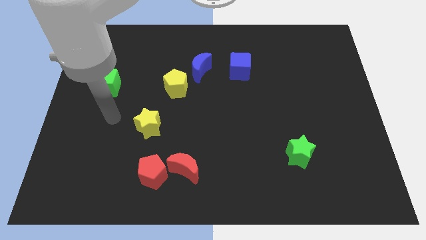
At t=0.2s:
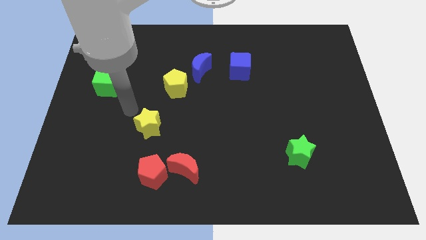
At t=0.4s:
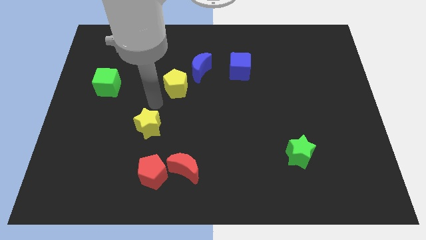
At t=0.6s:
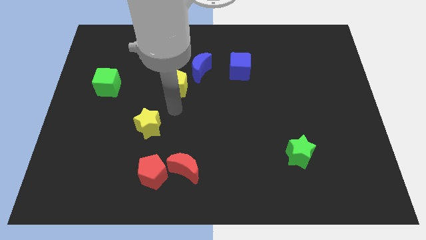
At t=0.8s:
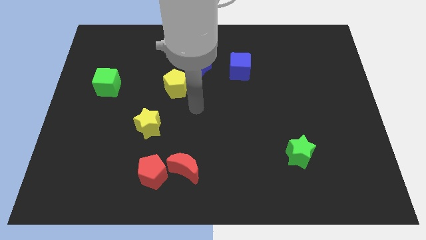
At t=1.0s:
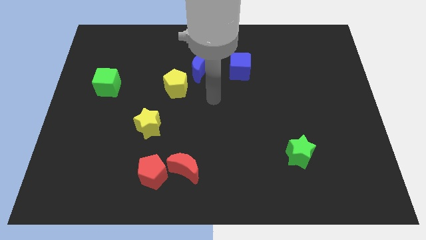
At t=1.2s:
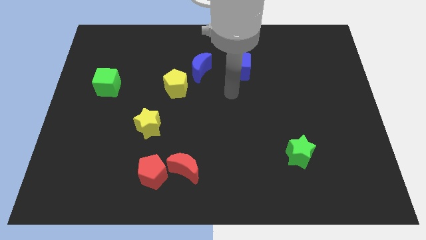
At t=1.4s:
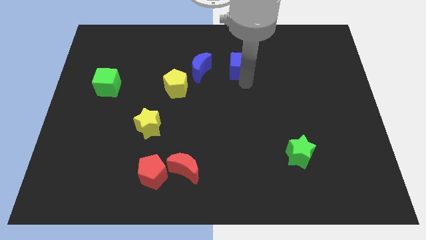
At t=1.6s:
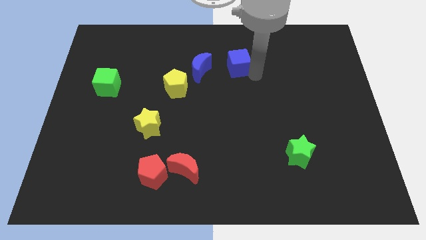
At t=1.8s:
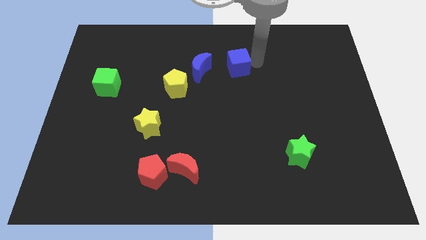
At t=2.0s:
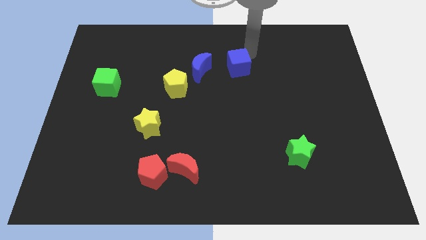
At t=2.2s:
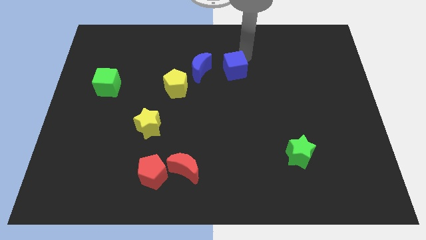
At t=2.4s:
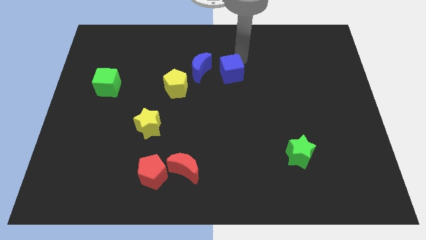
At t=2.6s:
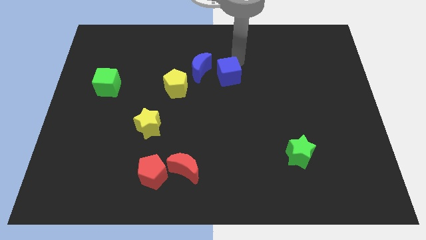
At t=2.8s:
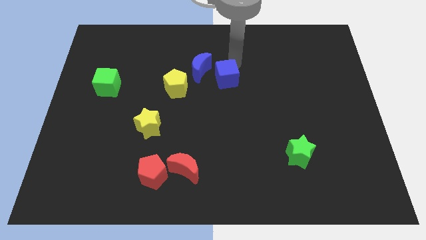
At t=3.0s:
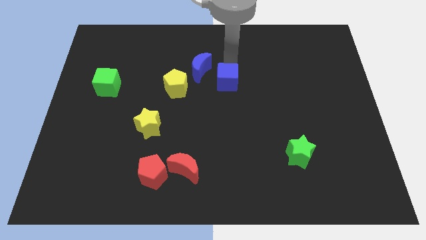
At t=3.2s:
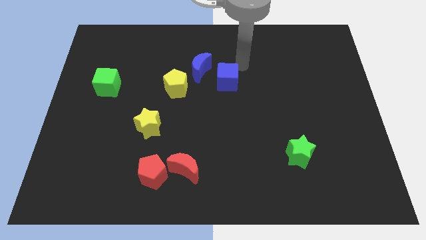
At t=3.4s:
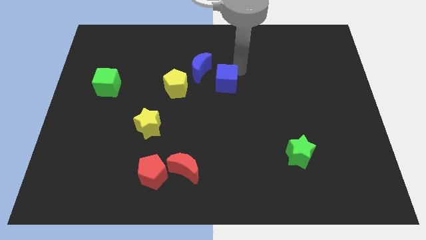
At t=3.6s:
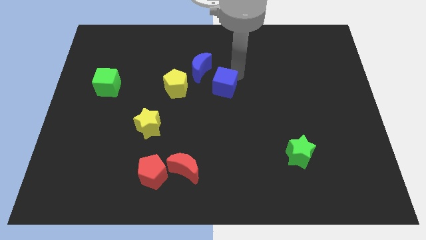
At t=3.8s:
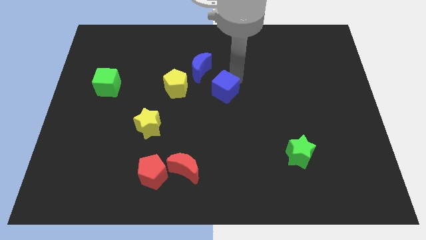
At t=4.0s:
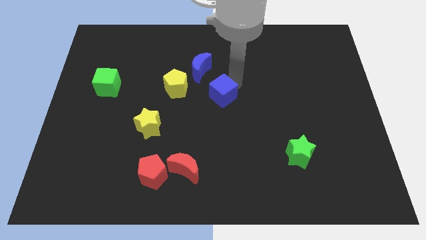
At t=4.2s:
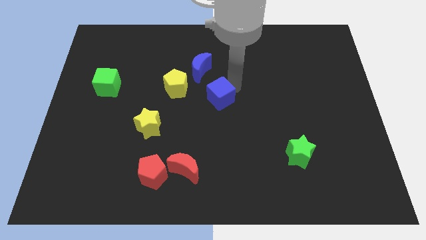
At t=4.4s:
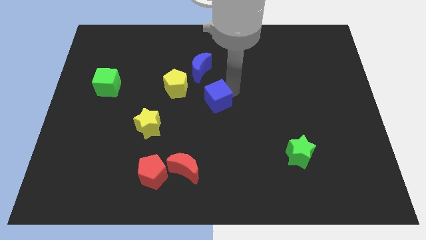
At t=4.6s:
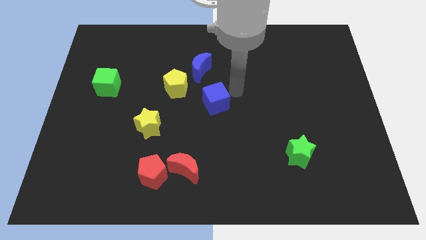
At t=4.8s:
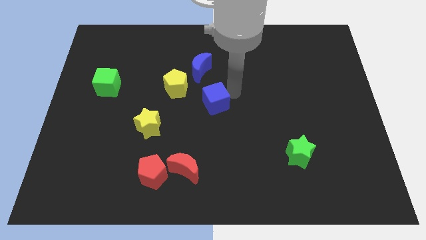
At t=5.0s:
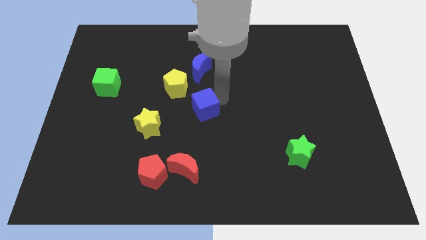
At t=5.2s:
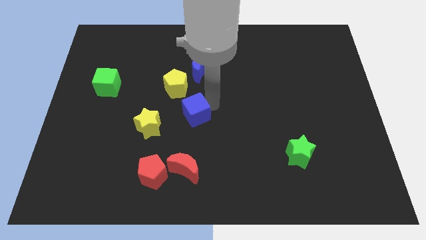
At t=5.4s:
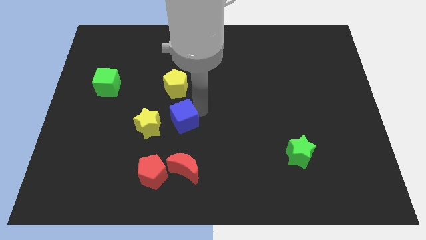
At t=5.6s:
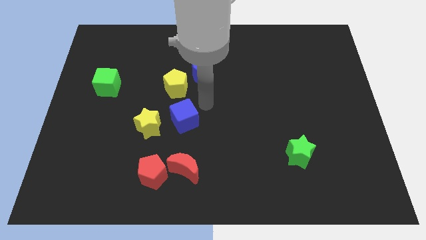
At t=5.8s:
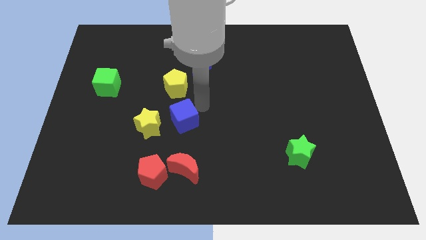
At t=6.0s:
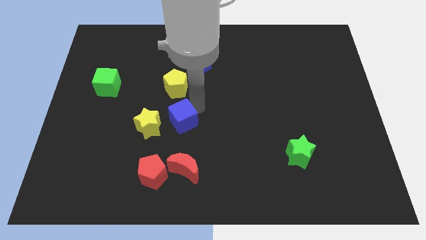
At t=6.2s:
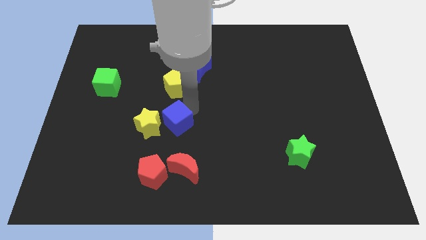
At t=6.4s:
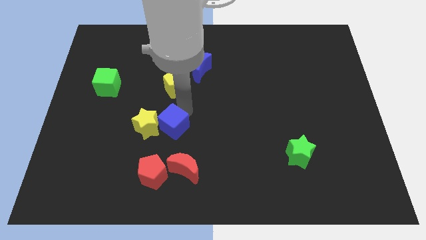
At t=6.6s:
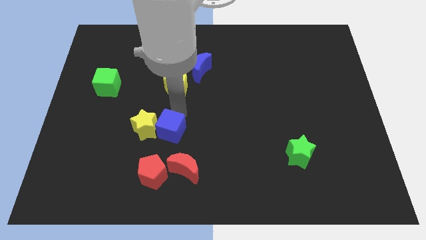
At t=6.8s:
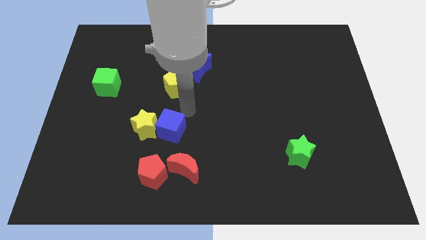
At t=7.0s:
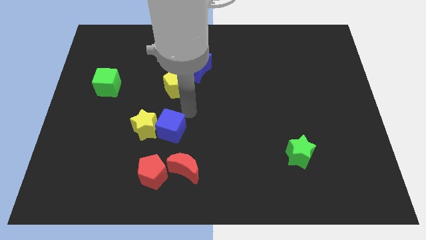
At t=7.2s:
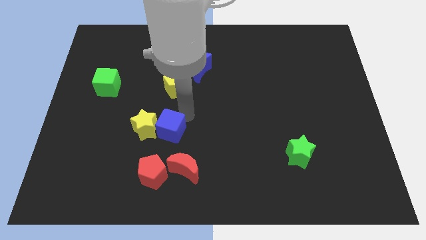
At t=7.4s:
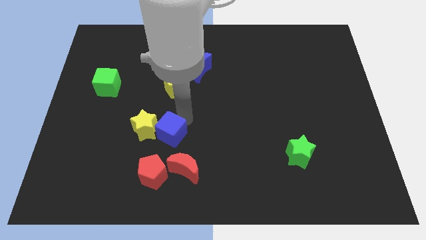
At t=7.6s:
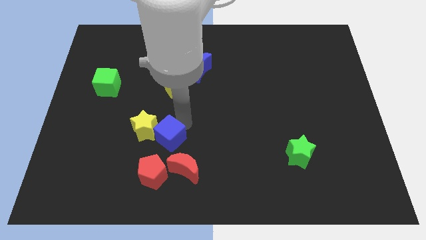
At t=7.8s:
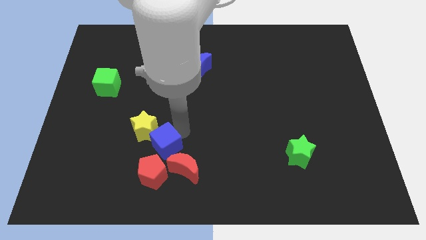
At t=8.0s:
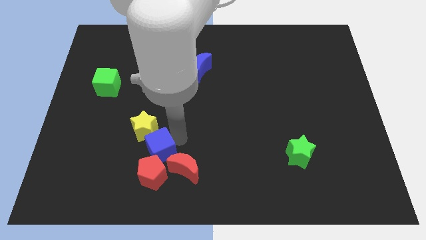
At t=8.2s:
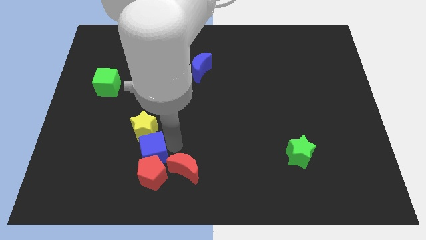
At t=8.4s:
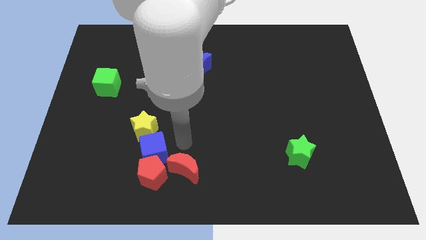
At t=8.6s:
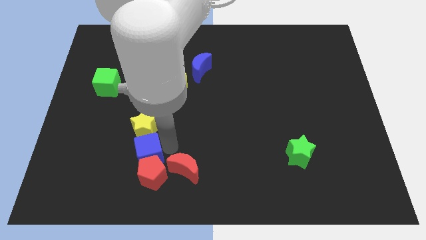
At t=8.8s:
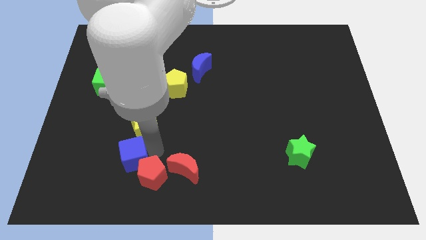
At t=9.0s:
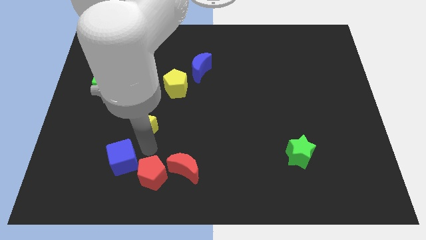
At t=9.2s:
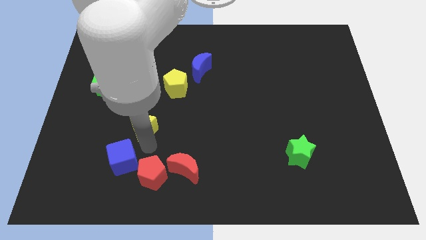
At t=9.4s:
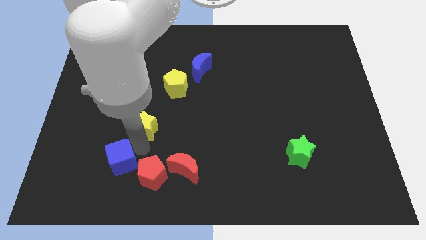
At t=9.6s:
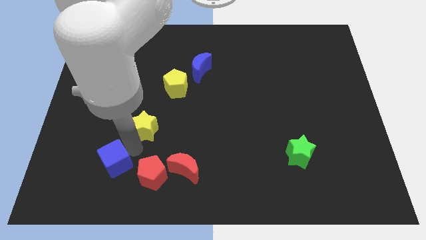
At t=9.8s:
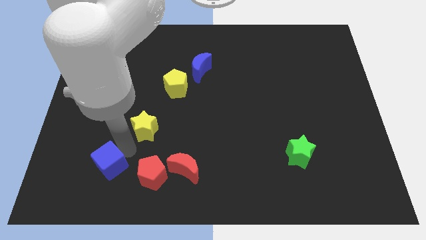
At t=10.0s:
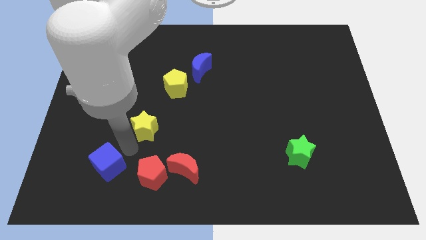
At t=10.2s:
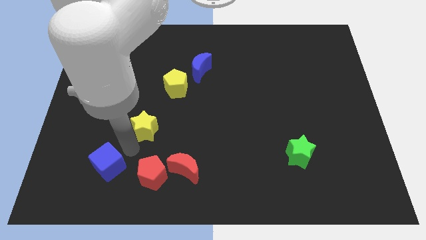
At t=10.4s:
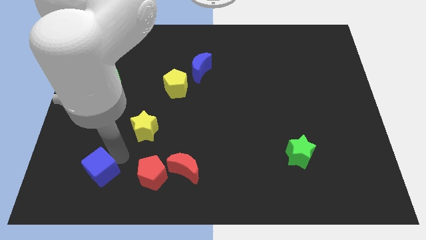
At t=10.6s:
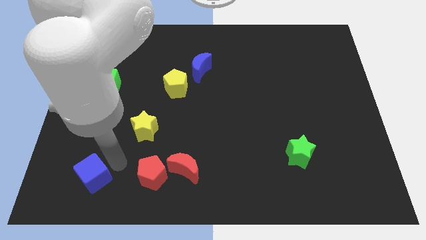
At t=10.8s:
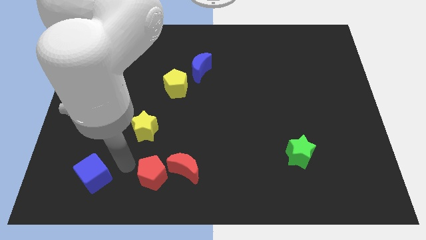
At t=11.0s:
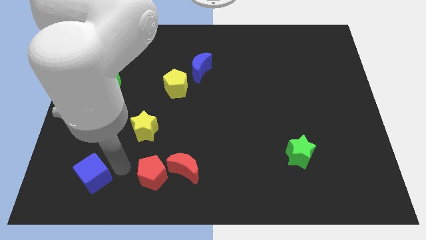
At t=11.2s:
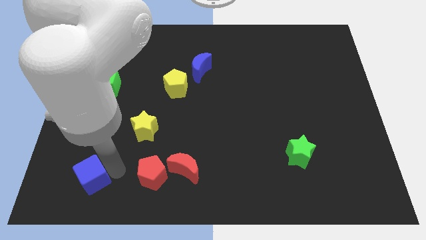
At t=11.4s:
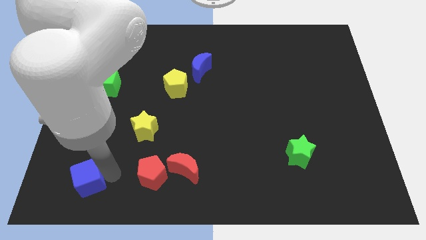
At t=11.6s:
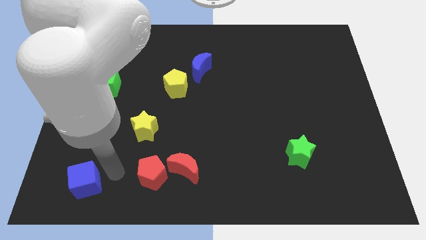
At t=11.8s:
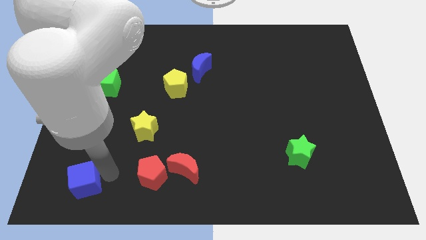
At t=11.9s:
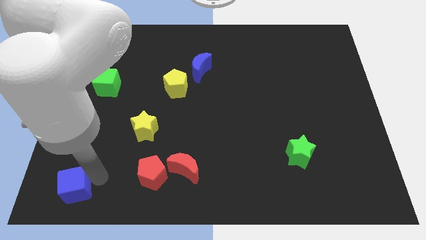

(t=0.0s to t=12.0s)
put the blue cube to the lower left corner
